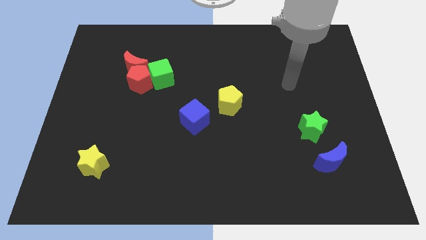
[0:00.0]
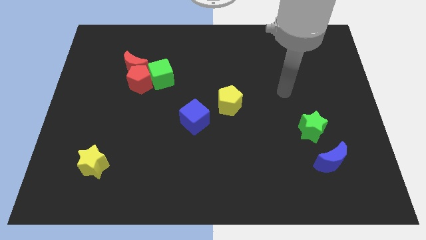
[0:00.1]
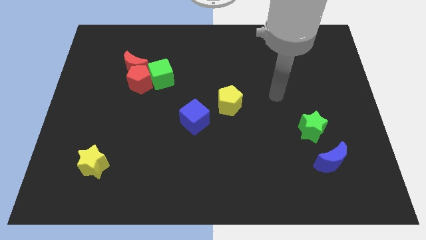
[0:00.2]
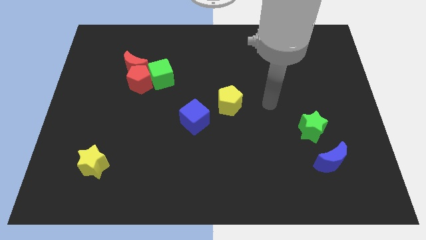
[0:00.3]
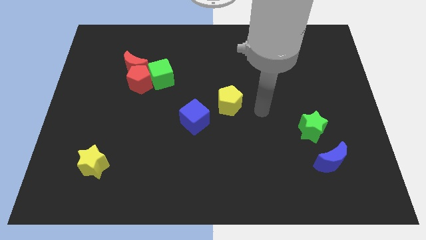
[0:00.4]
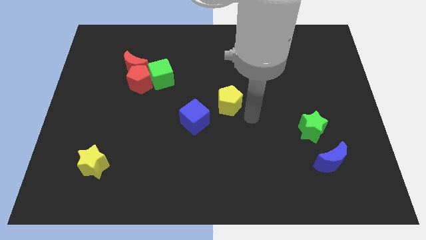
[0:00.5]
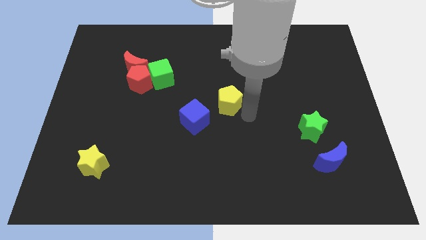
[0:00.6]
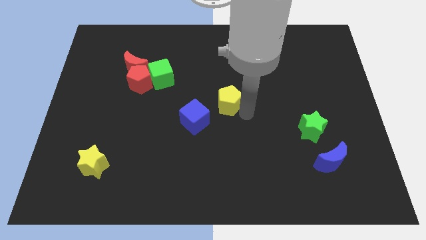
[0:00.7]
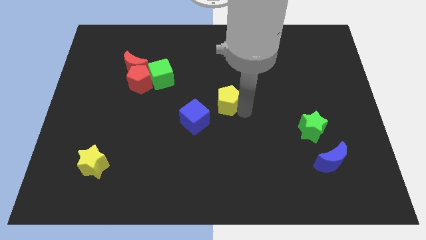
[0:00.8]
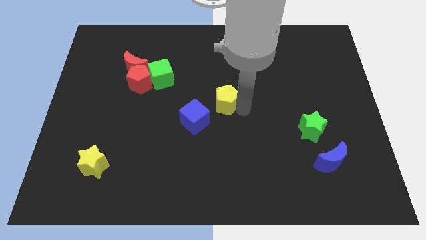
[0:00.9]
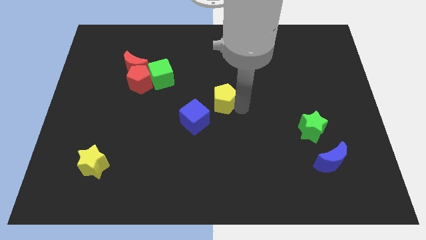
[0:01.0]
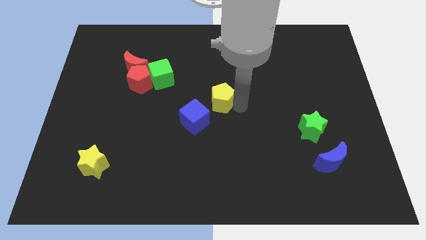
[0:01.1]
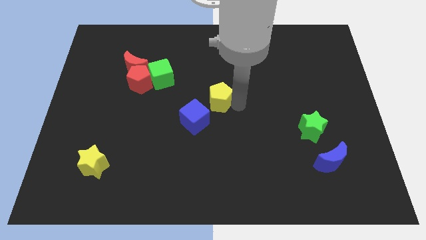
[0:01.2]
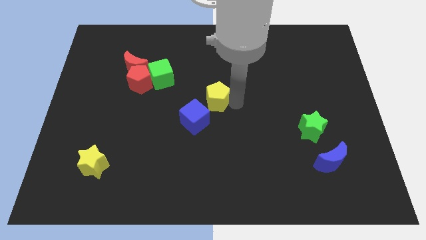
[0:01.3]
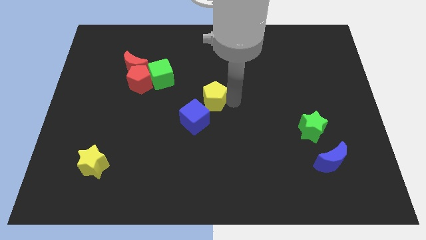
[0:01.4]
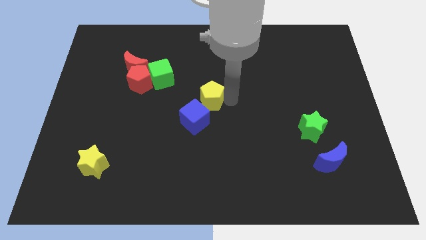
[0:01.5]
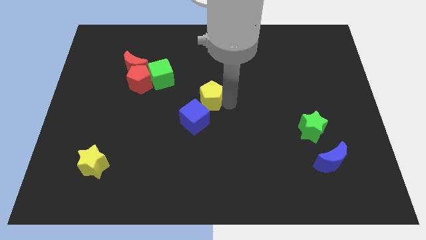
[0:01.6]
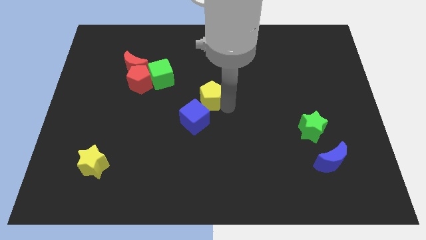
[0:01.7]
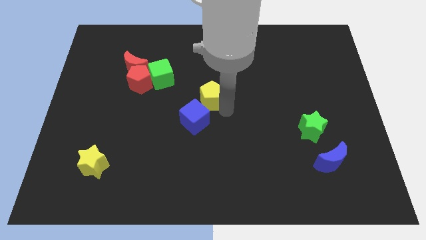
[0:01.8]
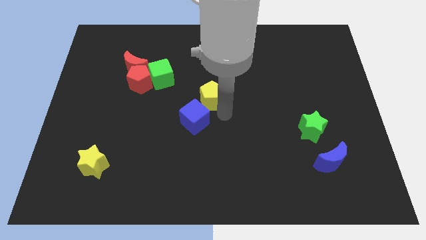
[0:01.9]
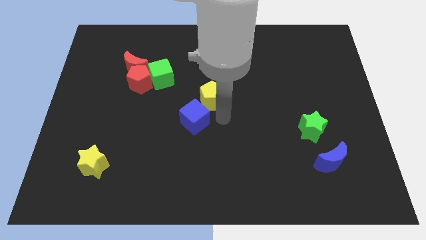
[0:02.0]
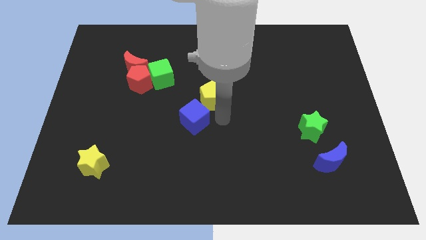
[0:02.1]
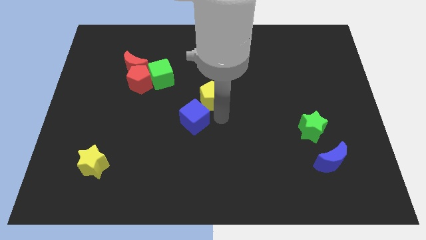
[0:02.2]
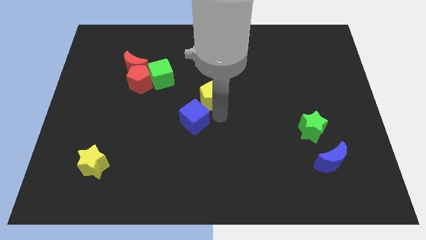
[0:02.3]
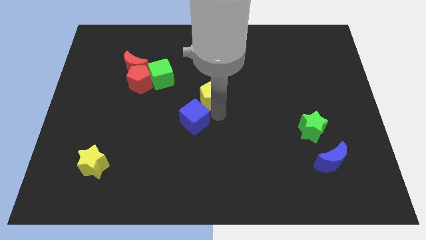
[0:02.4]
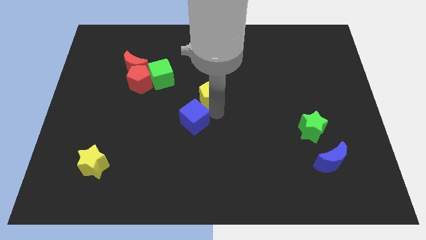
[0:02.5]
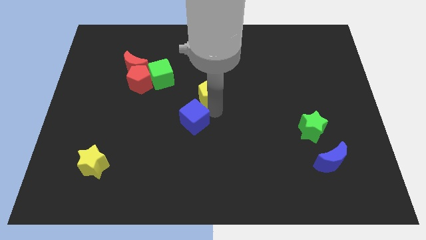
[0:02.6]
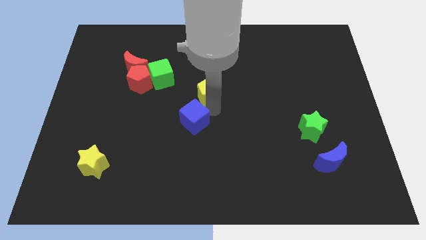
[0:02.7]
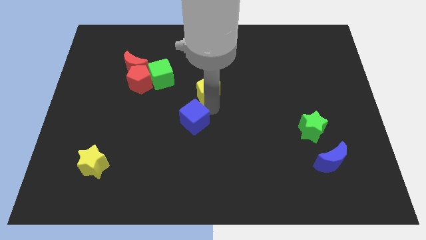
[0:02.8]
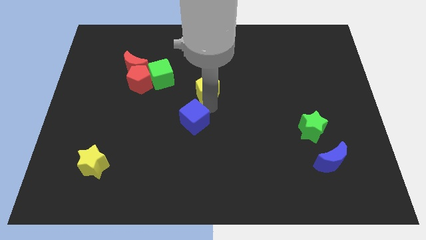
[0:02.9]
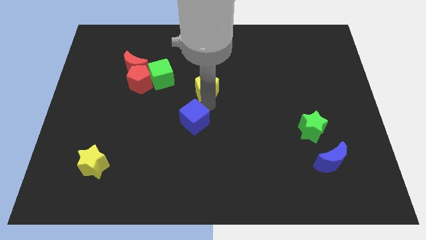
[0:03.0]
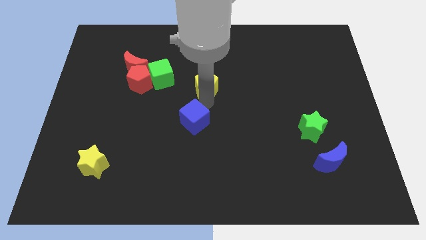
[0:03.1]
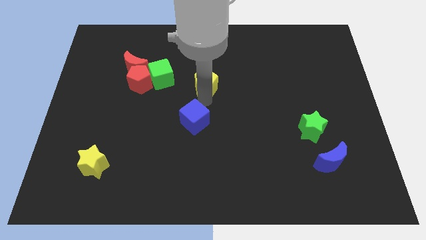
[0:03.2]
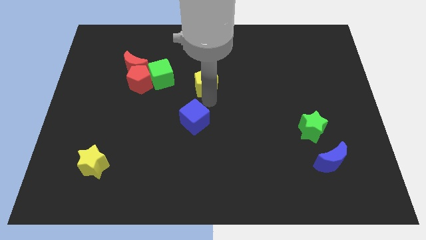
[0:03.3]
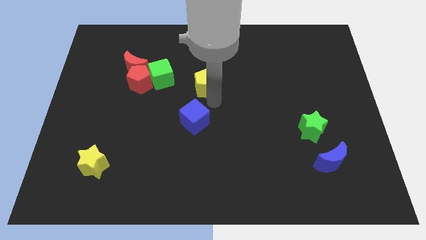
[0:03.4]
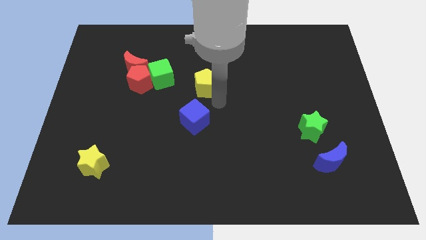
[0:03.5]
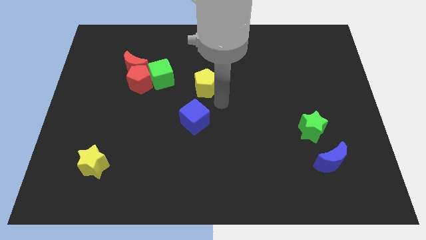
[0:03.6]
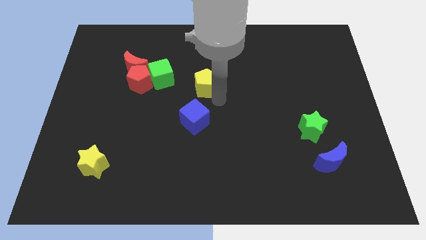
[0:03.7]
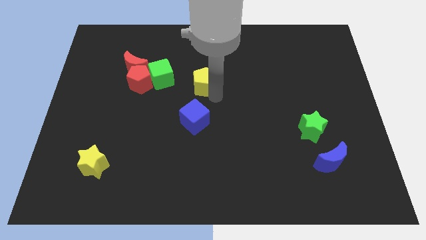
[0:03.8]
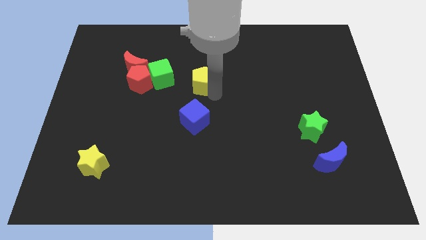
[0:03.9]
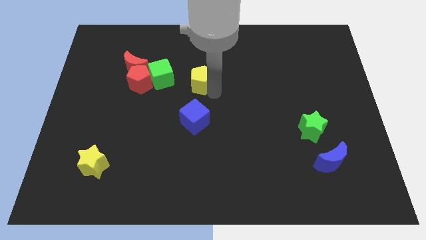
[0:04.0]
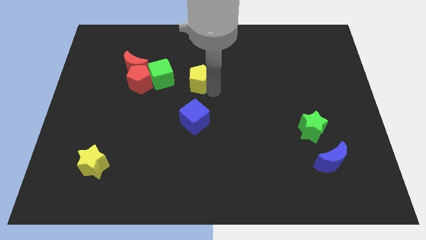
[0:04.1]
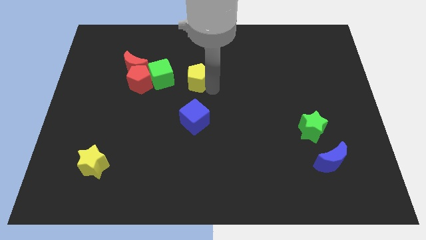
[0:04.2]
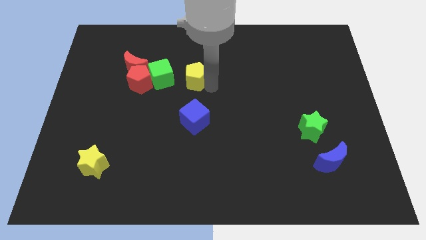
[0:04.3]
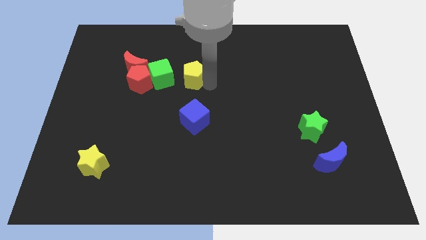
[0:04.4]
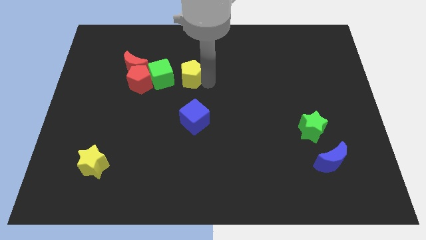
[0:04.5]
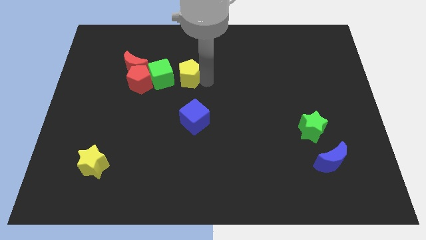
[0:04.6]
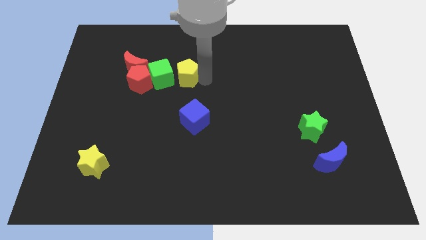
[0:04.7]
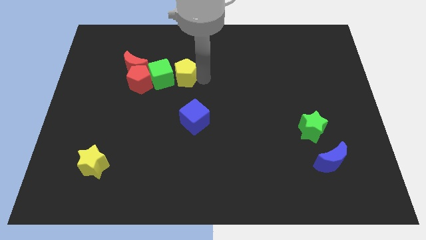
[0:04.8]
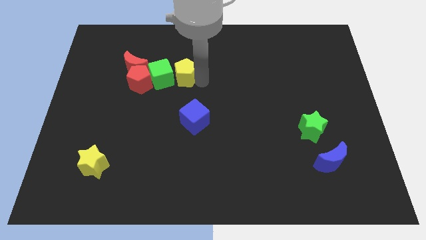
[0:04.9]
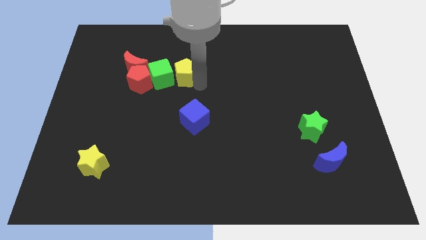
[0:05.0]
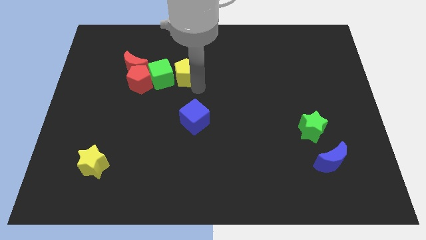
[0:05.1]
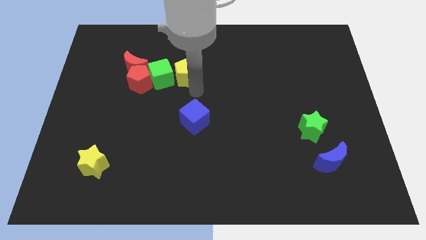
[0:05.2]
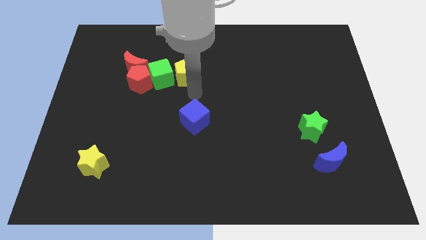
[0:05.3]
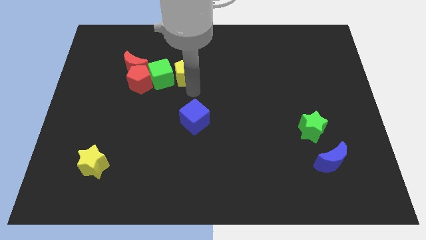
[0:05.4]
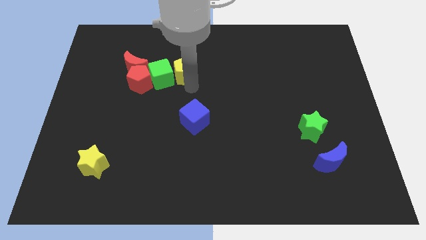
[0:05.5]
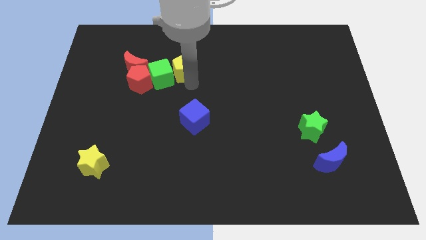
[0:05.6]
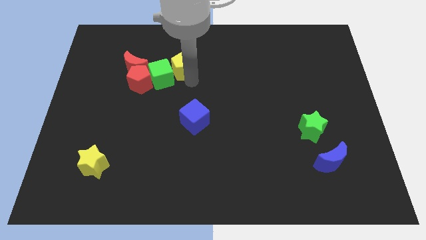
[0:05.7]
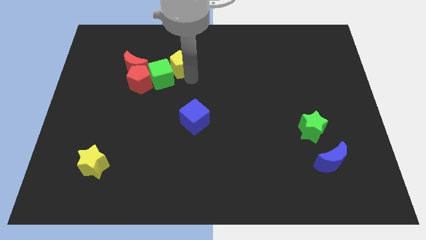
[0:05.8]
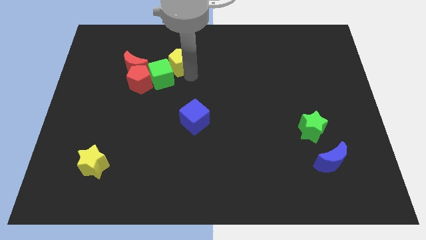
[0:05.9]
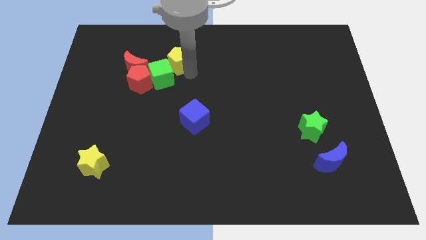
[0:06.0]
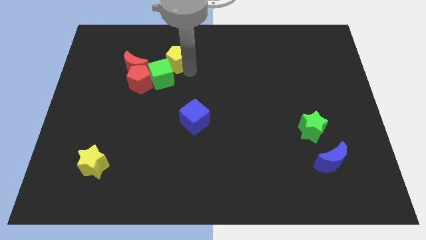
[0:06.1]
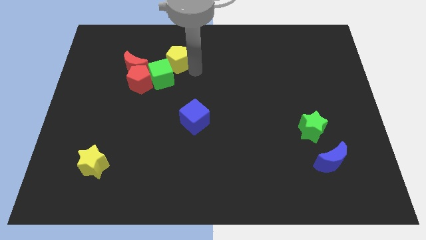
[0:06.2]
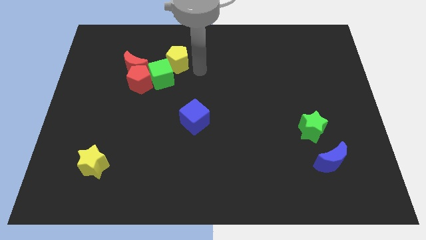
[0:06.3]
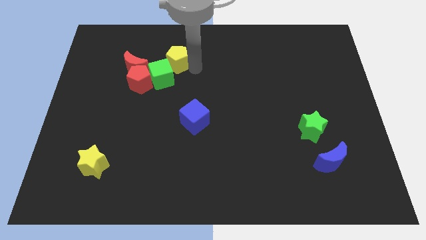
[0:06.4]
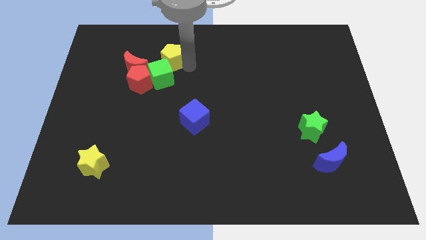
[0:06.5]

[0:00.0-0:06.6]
push the yellow pentagon to the top right side of the red moon
